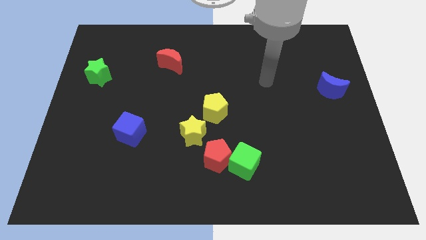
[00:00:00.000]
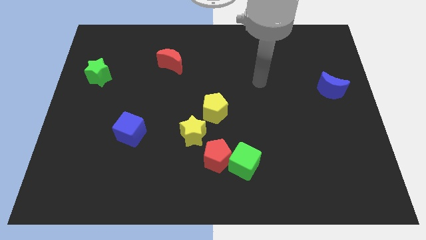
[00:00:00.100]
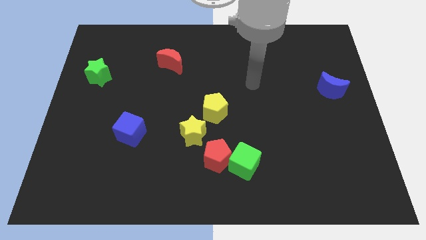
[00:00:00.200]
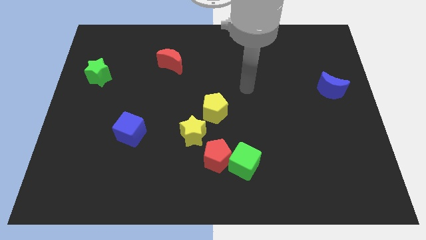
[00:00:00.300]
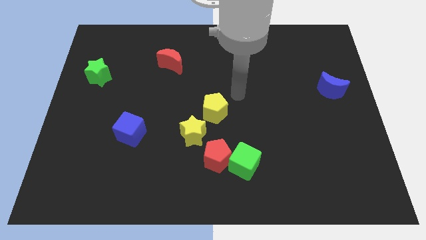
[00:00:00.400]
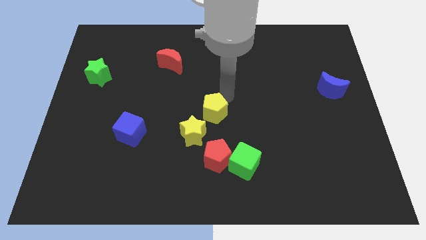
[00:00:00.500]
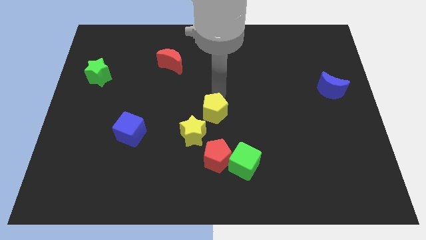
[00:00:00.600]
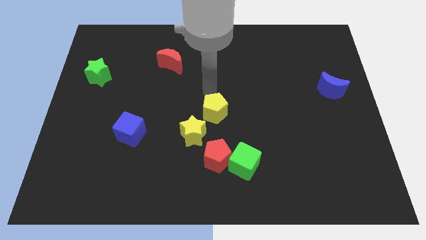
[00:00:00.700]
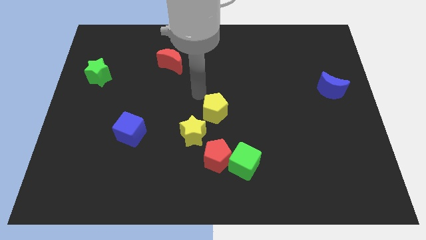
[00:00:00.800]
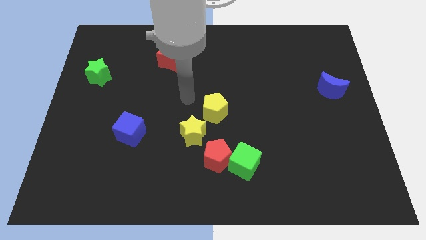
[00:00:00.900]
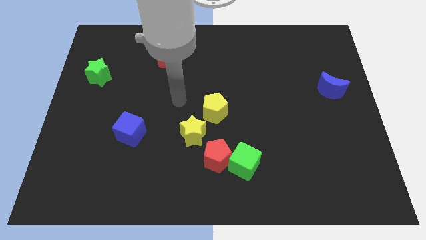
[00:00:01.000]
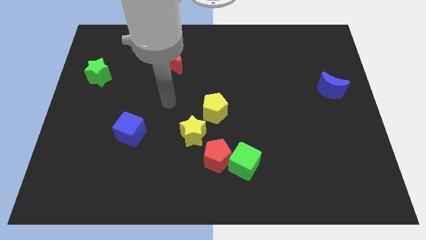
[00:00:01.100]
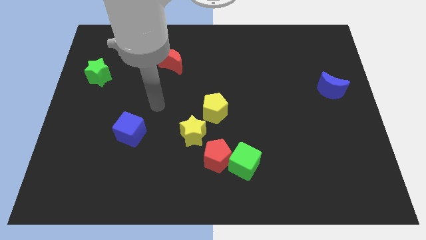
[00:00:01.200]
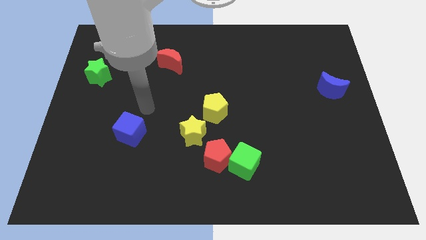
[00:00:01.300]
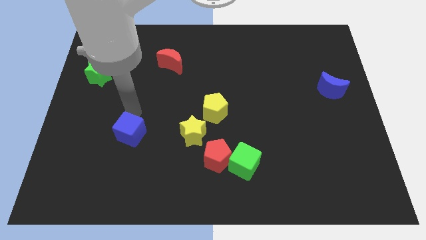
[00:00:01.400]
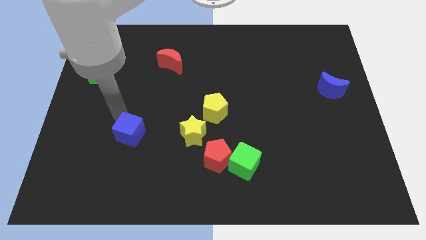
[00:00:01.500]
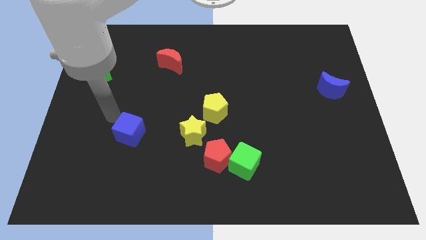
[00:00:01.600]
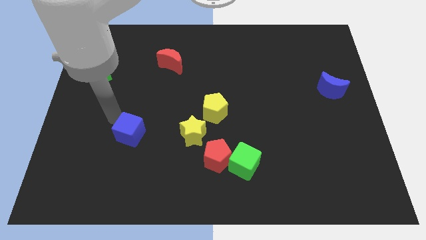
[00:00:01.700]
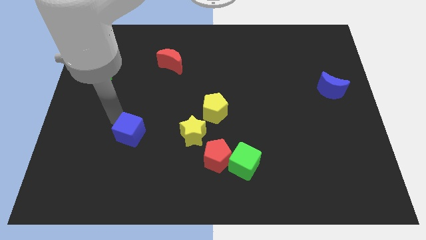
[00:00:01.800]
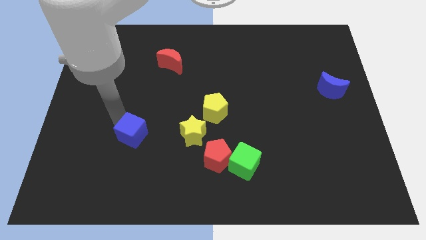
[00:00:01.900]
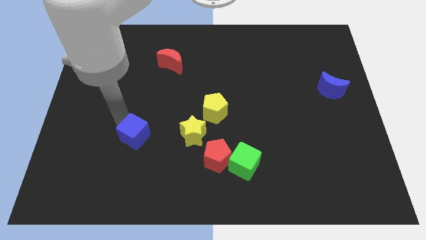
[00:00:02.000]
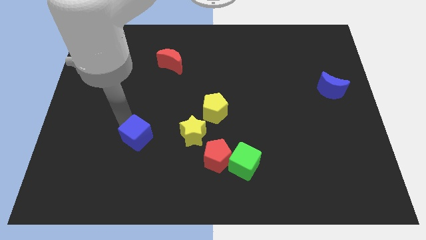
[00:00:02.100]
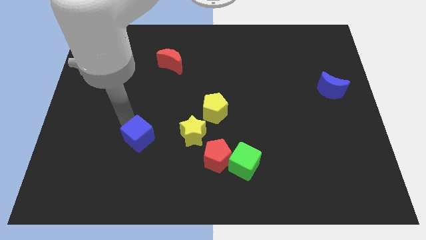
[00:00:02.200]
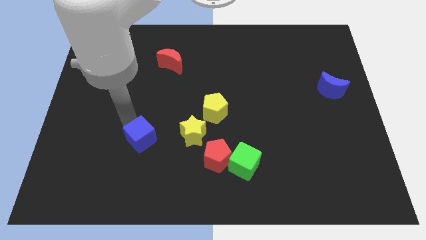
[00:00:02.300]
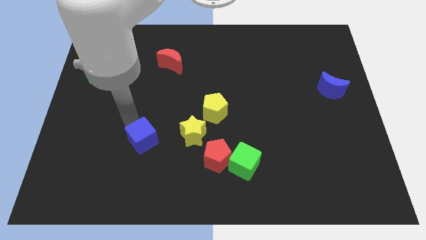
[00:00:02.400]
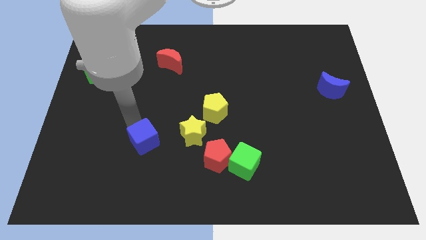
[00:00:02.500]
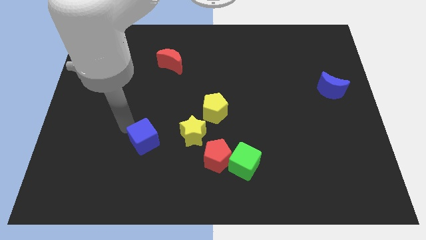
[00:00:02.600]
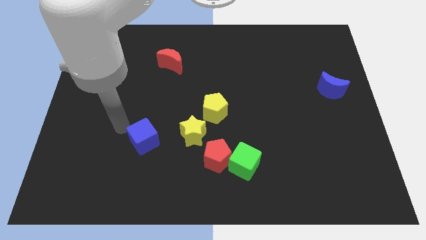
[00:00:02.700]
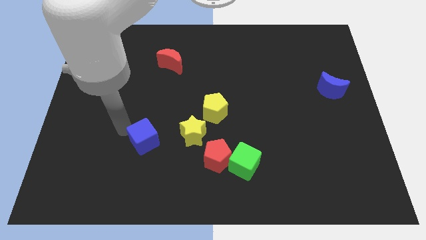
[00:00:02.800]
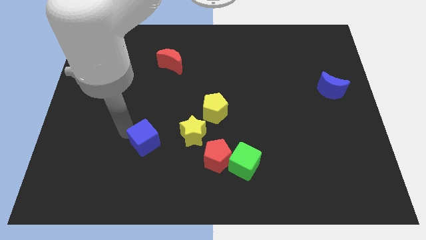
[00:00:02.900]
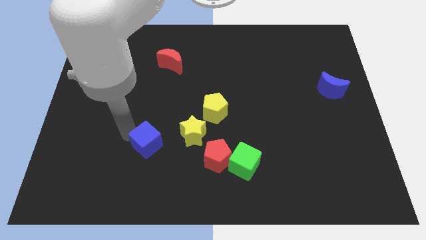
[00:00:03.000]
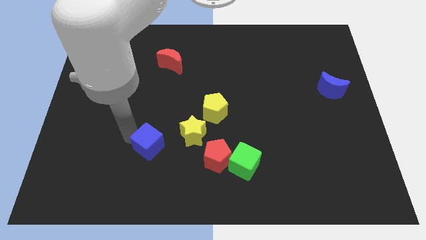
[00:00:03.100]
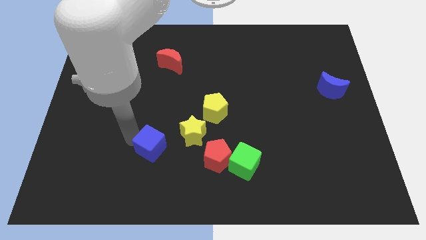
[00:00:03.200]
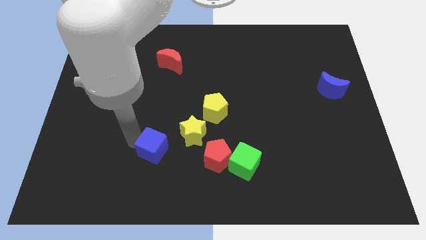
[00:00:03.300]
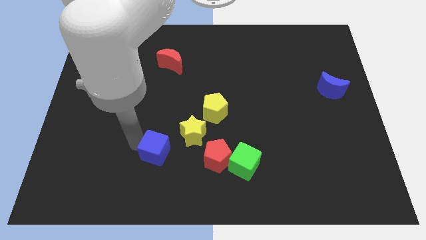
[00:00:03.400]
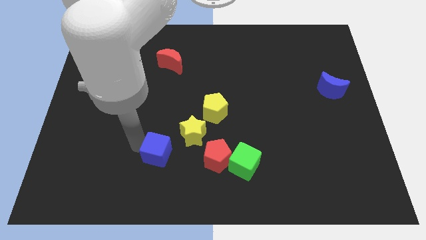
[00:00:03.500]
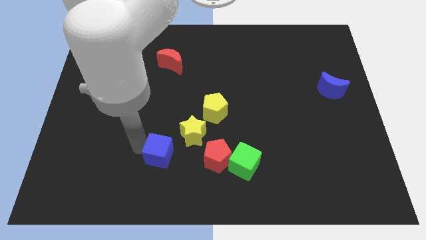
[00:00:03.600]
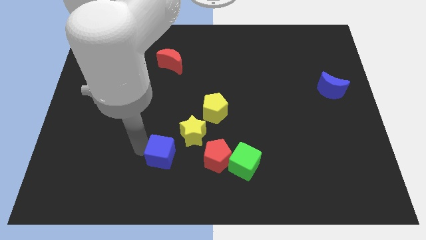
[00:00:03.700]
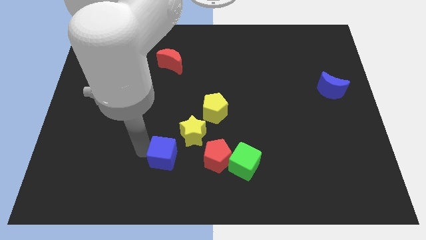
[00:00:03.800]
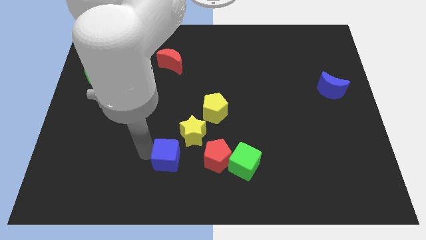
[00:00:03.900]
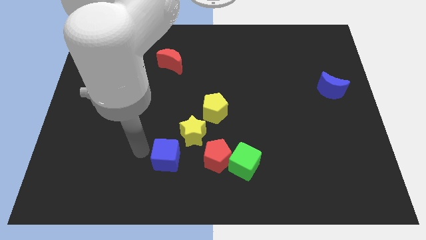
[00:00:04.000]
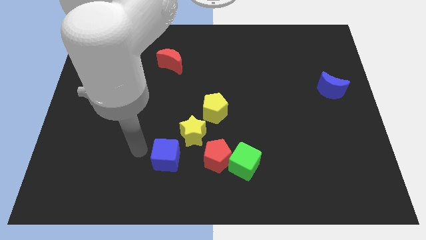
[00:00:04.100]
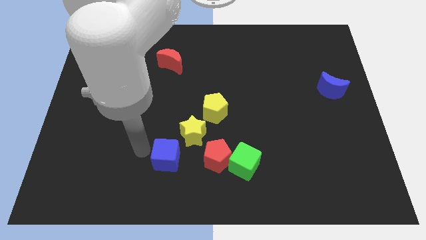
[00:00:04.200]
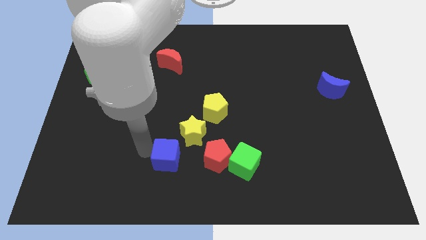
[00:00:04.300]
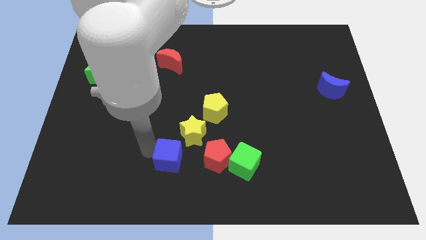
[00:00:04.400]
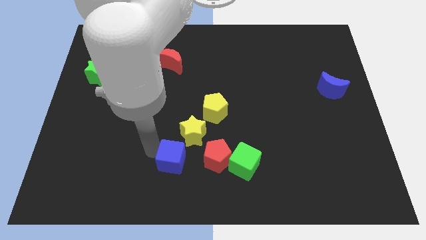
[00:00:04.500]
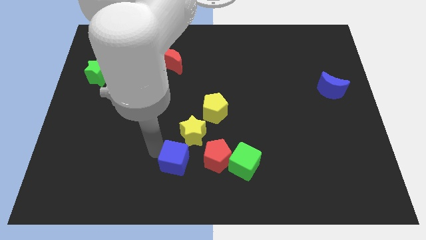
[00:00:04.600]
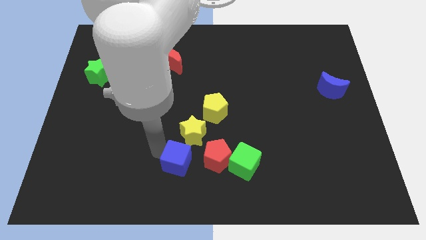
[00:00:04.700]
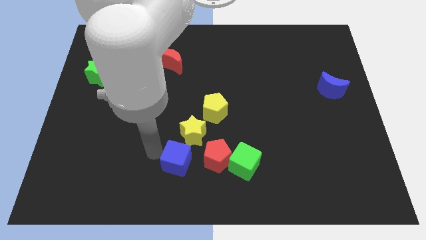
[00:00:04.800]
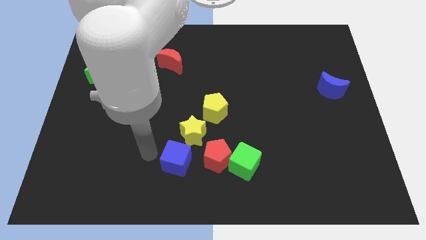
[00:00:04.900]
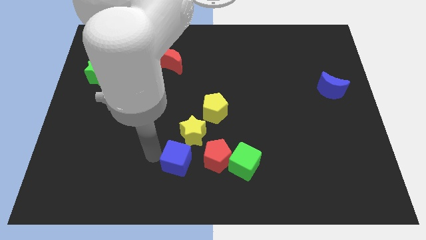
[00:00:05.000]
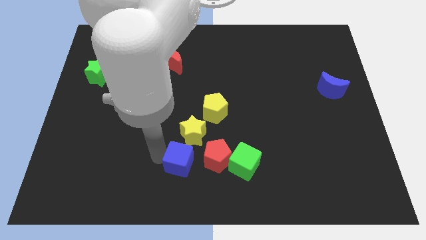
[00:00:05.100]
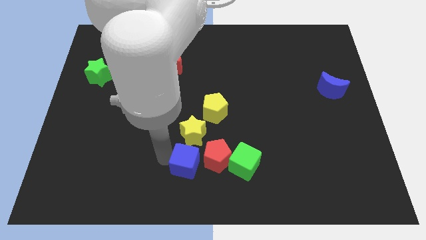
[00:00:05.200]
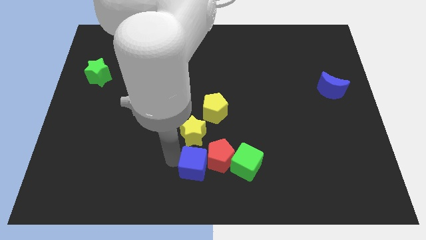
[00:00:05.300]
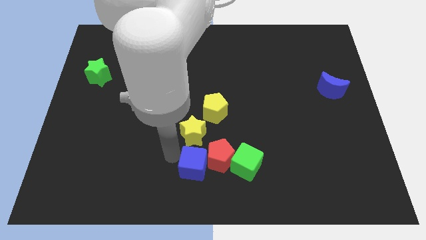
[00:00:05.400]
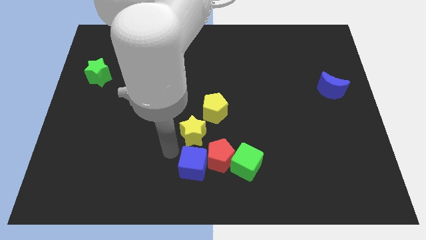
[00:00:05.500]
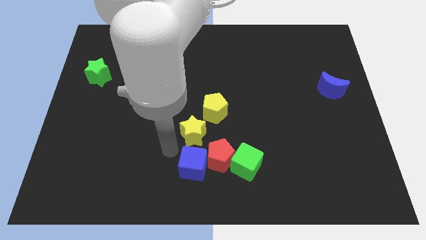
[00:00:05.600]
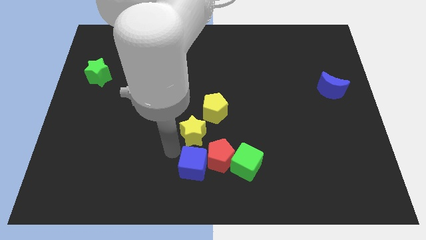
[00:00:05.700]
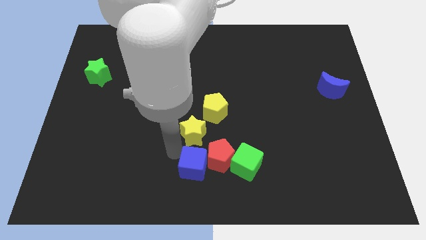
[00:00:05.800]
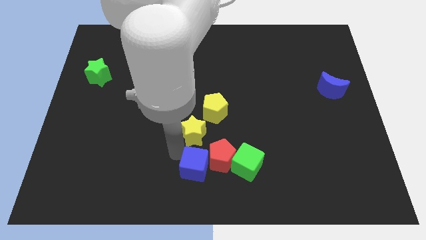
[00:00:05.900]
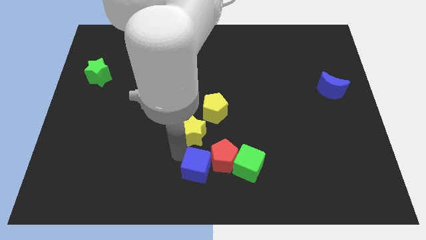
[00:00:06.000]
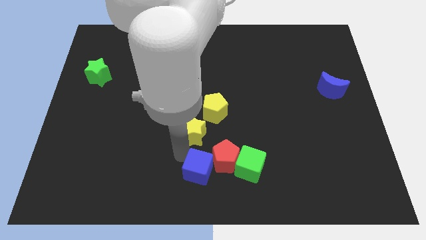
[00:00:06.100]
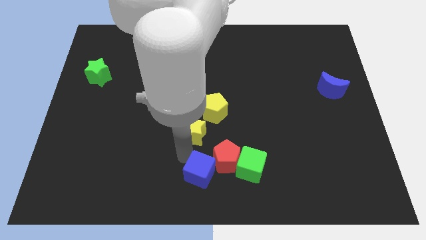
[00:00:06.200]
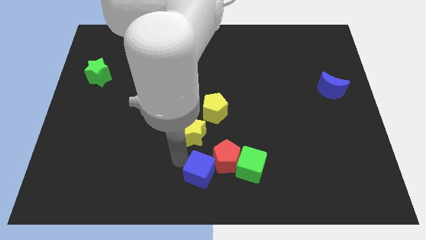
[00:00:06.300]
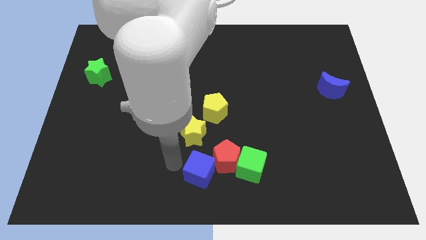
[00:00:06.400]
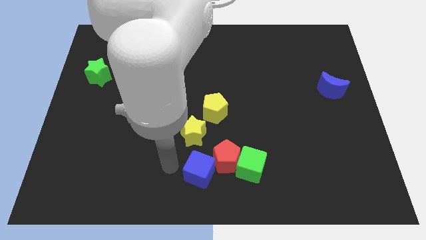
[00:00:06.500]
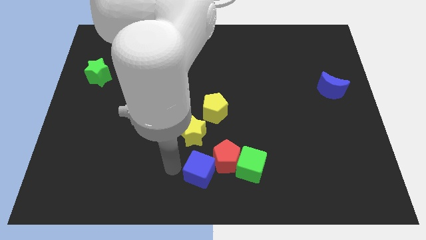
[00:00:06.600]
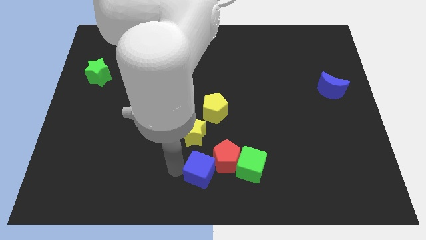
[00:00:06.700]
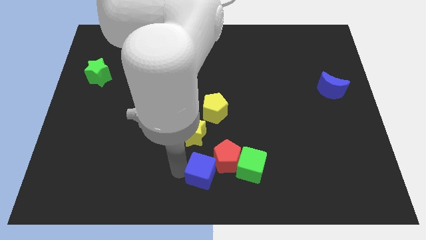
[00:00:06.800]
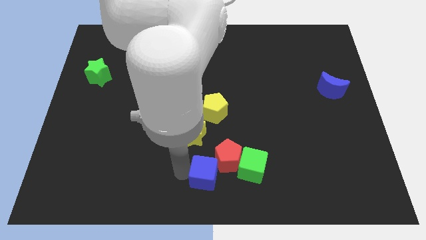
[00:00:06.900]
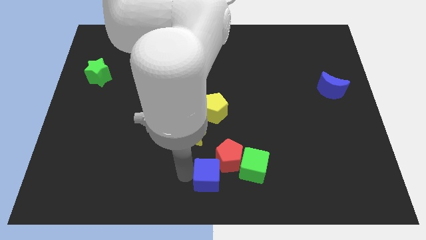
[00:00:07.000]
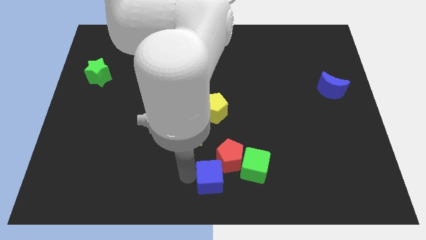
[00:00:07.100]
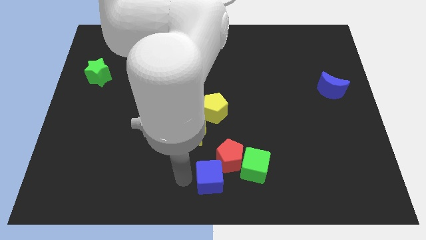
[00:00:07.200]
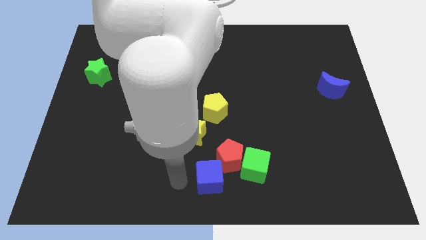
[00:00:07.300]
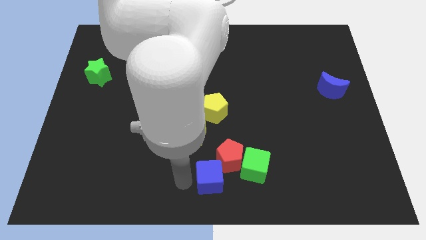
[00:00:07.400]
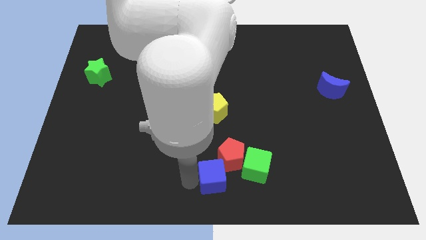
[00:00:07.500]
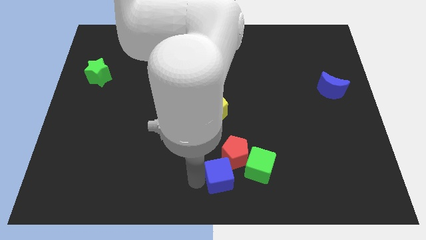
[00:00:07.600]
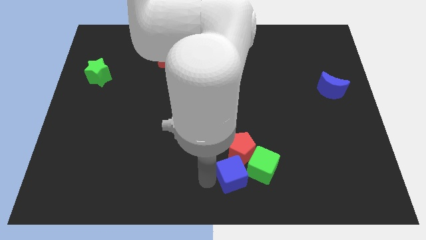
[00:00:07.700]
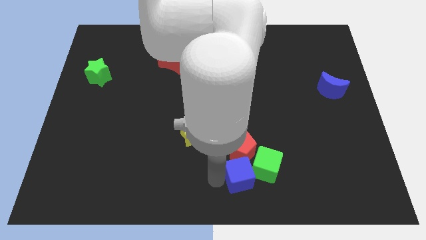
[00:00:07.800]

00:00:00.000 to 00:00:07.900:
slide the blue cube towards the green cube
